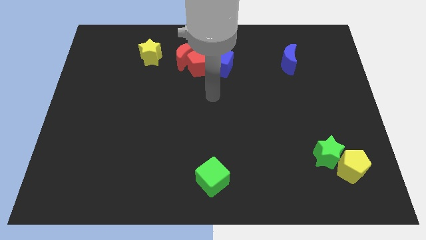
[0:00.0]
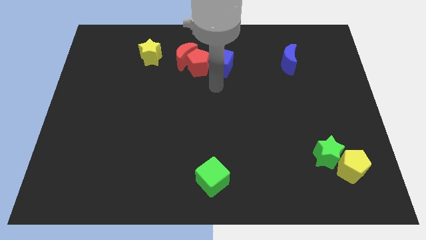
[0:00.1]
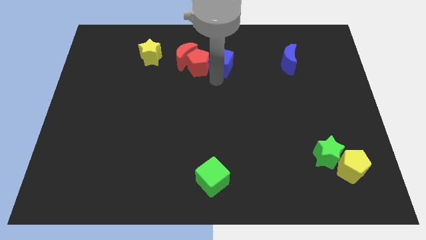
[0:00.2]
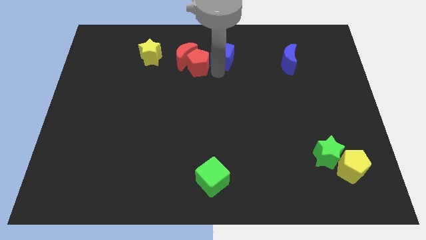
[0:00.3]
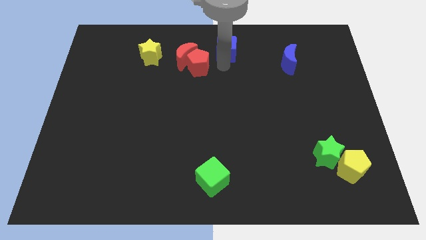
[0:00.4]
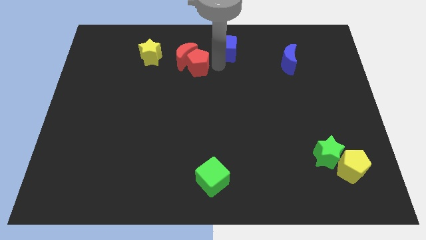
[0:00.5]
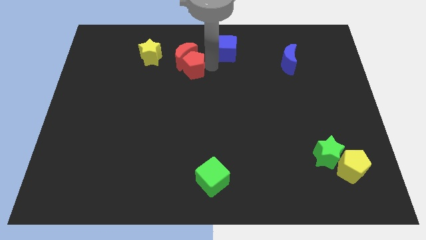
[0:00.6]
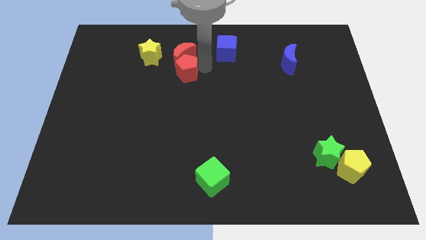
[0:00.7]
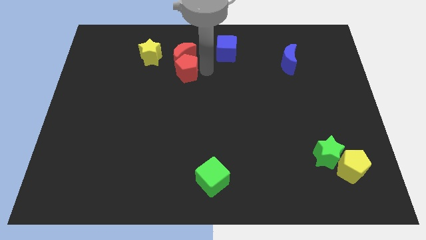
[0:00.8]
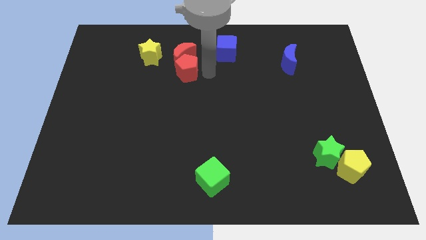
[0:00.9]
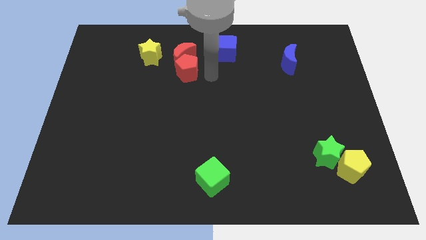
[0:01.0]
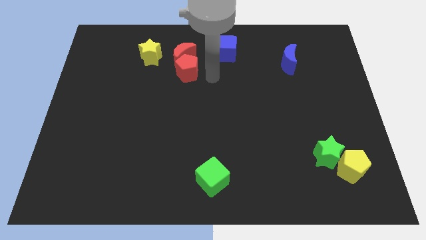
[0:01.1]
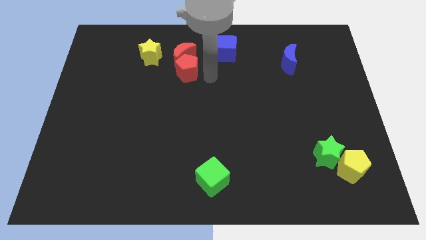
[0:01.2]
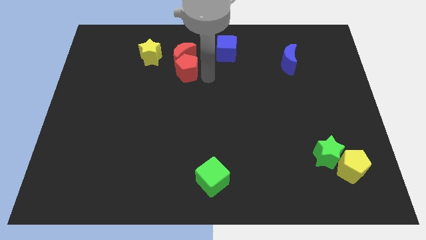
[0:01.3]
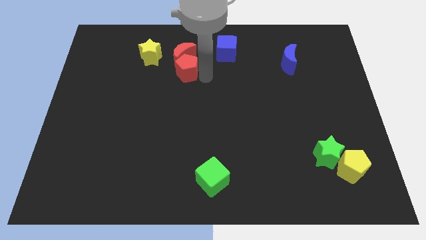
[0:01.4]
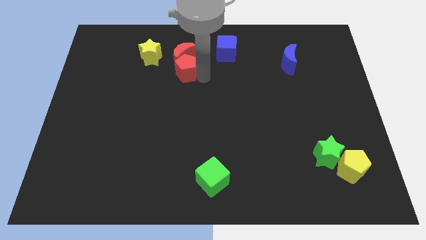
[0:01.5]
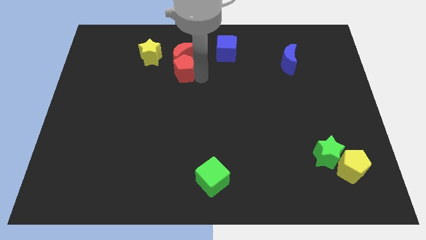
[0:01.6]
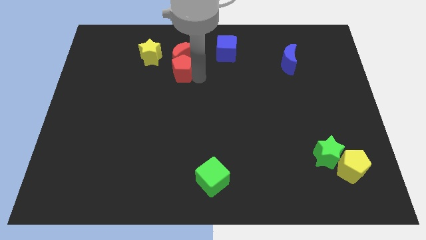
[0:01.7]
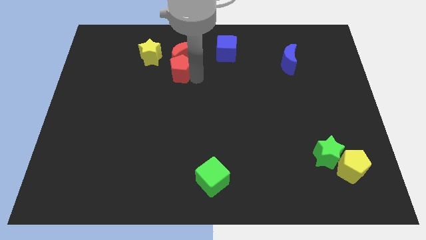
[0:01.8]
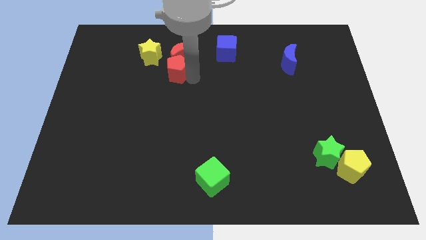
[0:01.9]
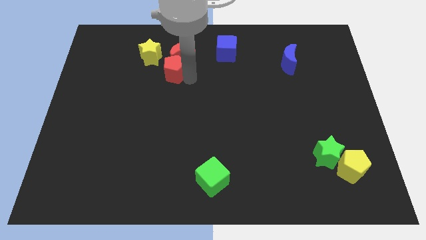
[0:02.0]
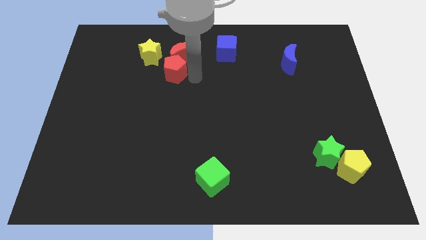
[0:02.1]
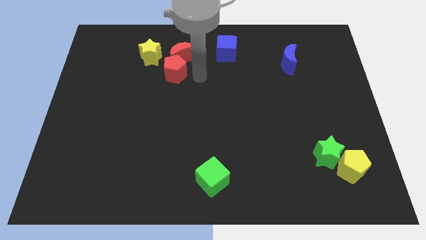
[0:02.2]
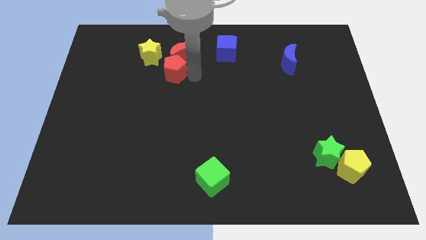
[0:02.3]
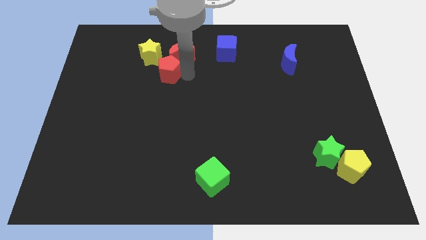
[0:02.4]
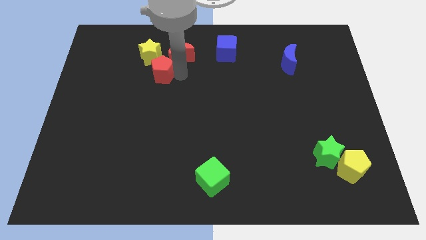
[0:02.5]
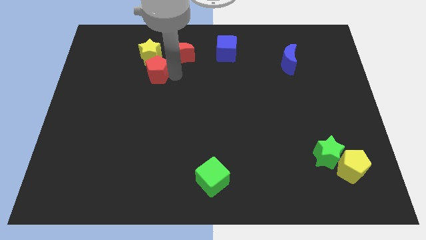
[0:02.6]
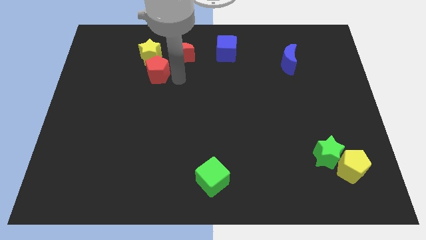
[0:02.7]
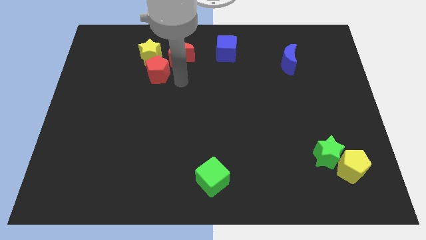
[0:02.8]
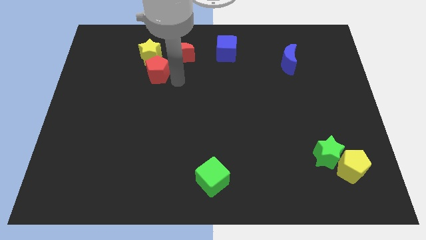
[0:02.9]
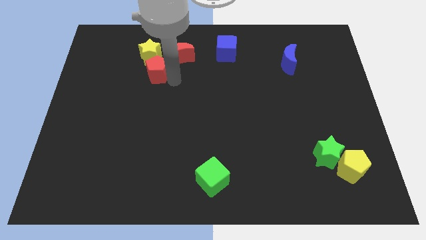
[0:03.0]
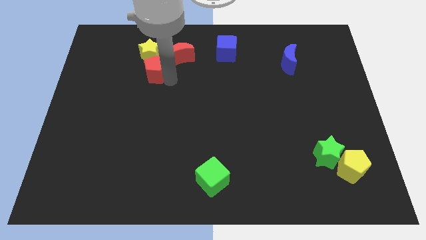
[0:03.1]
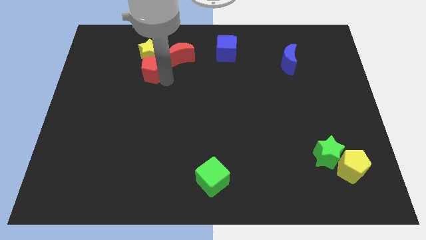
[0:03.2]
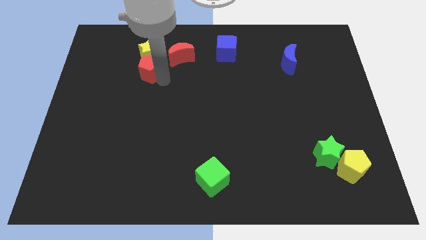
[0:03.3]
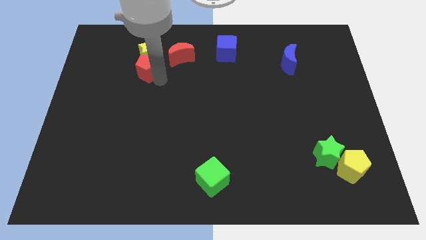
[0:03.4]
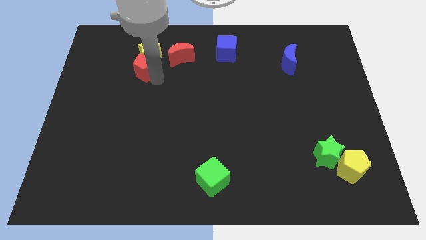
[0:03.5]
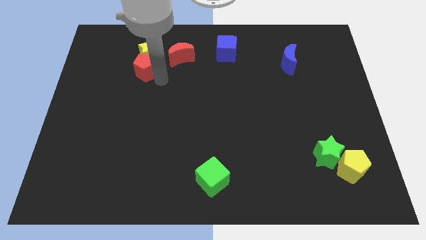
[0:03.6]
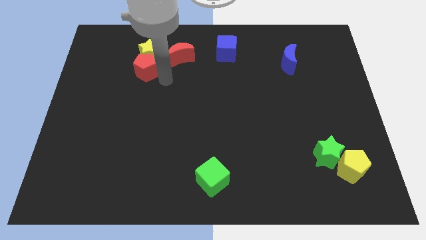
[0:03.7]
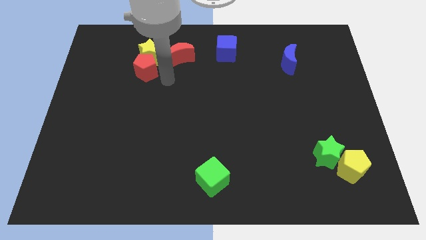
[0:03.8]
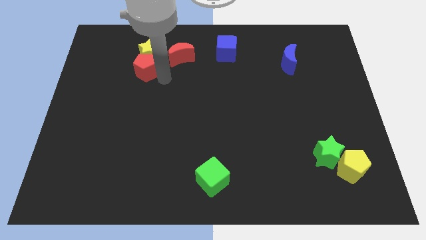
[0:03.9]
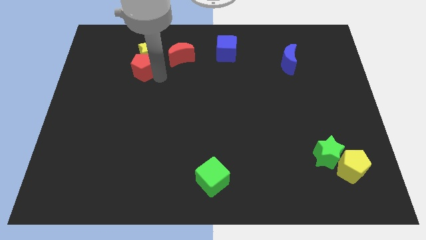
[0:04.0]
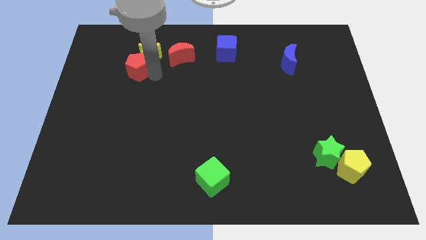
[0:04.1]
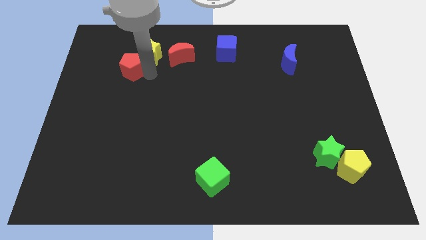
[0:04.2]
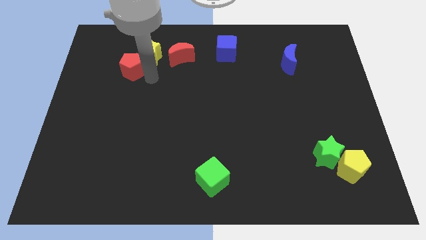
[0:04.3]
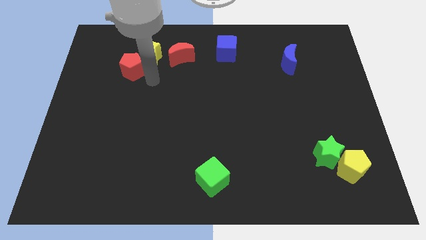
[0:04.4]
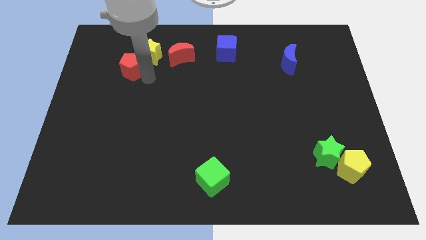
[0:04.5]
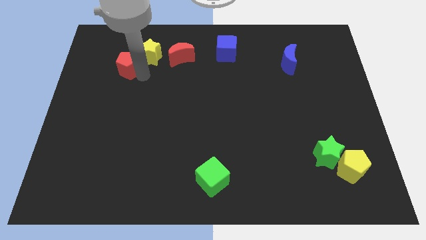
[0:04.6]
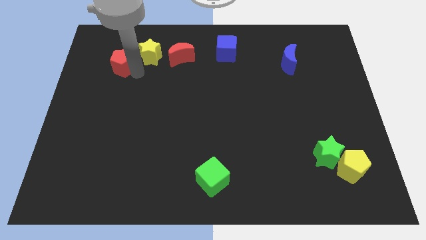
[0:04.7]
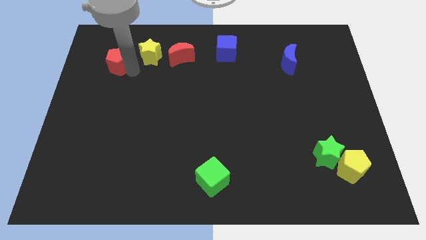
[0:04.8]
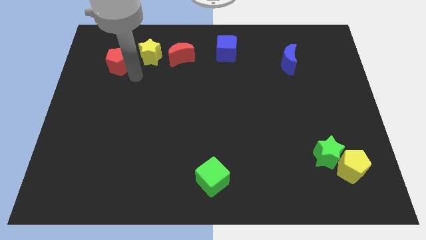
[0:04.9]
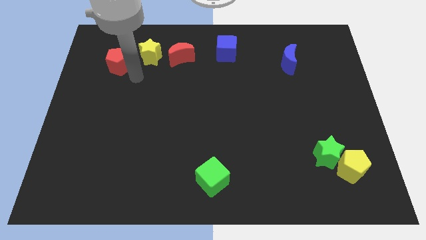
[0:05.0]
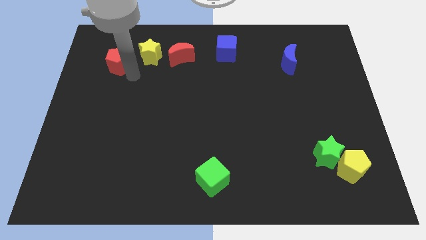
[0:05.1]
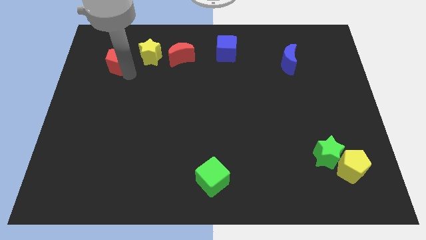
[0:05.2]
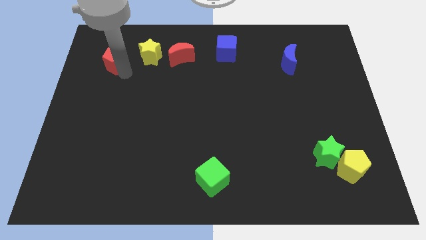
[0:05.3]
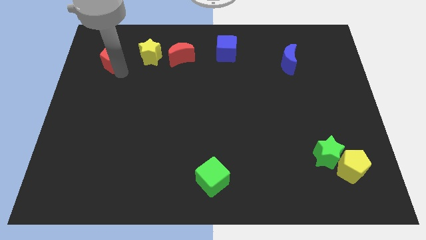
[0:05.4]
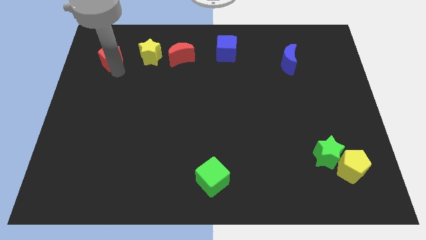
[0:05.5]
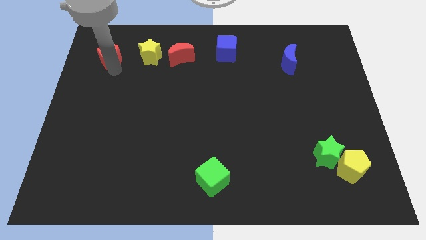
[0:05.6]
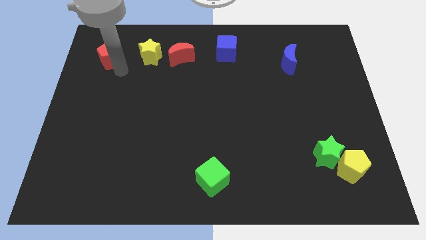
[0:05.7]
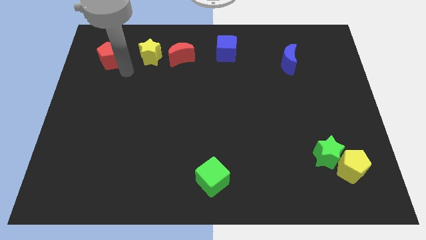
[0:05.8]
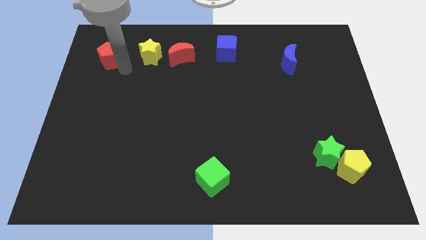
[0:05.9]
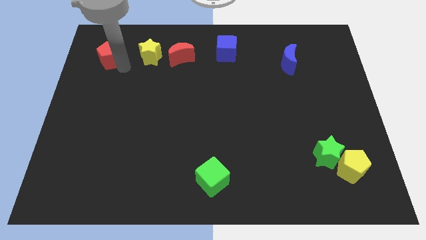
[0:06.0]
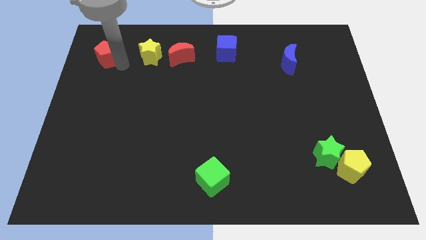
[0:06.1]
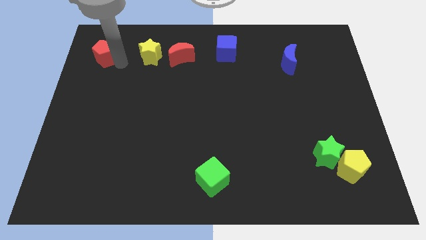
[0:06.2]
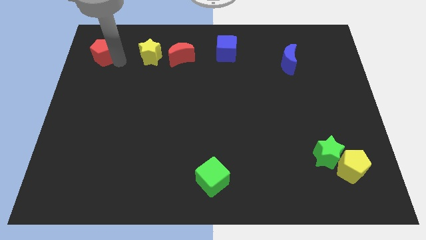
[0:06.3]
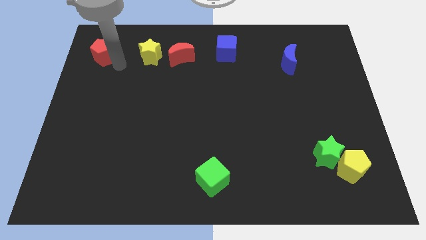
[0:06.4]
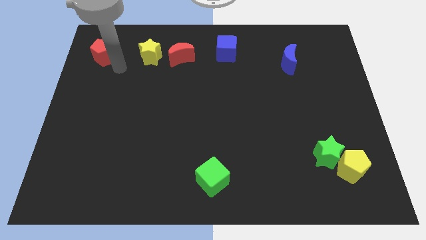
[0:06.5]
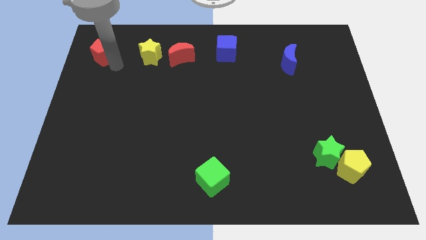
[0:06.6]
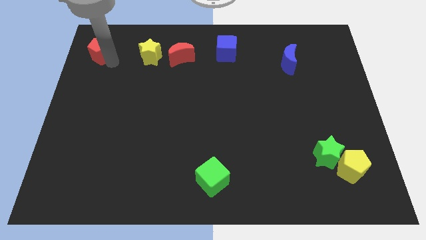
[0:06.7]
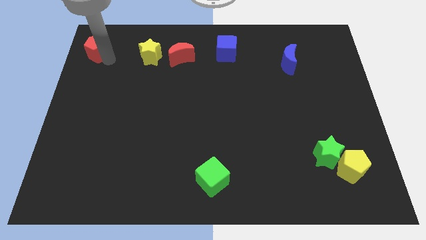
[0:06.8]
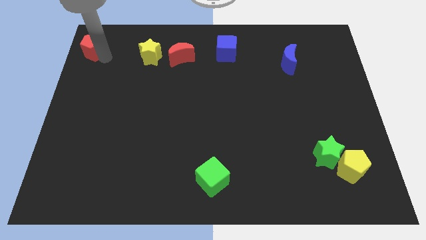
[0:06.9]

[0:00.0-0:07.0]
slide the red pentagon to the top left of the board
